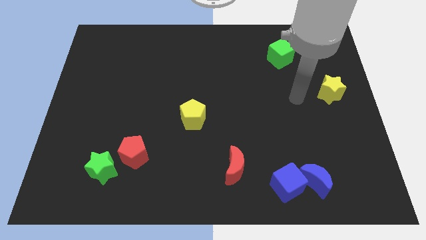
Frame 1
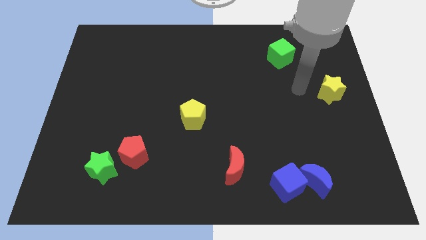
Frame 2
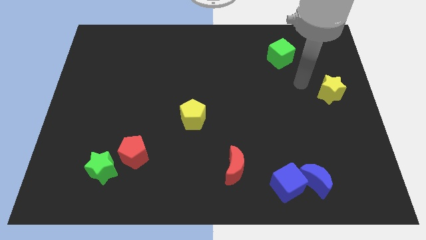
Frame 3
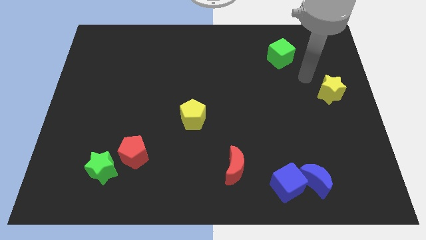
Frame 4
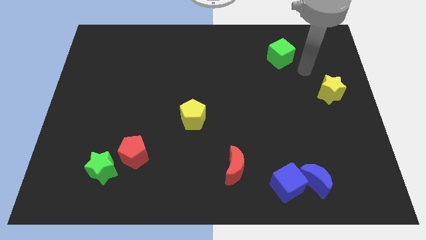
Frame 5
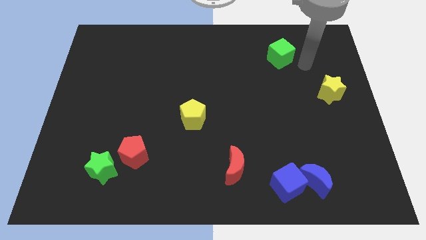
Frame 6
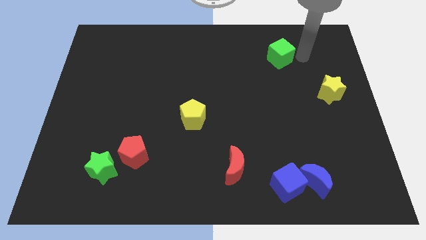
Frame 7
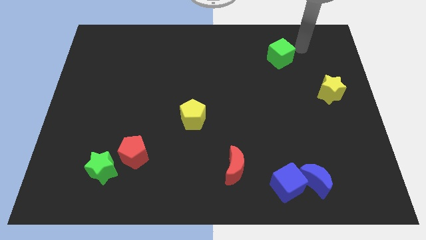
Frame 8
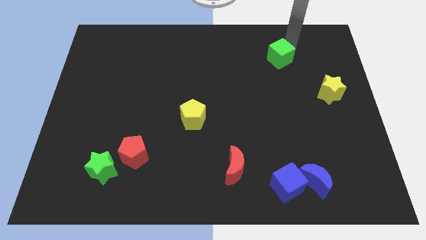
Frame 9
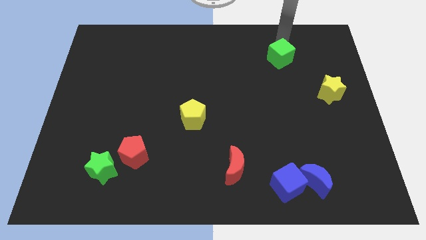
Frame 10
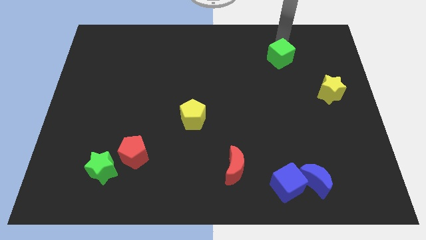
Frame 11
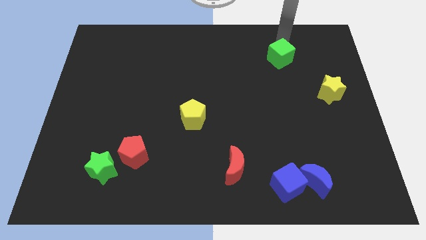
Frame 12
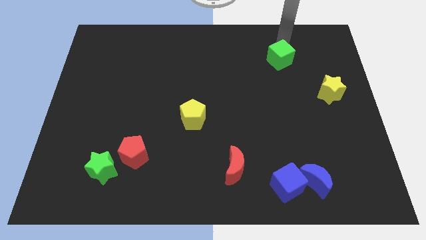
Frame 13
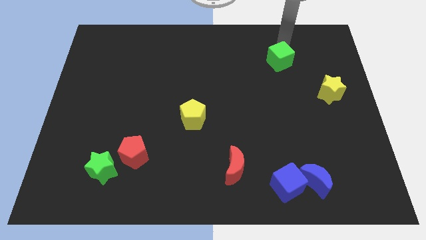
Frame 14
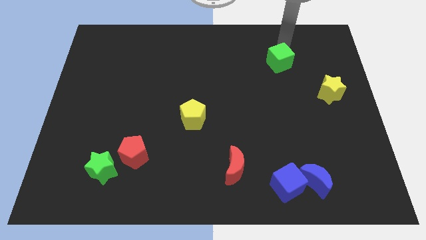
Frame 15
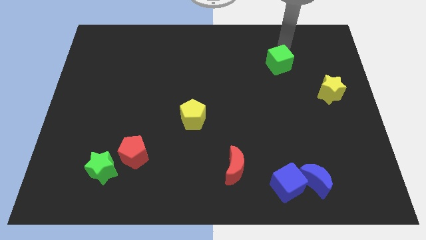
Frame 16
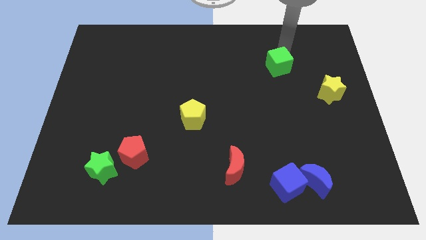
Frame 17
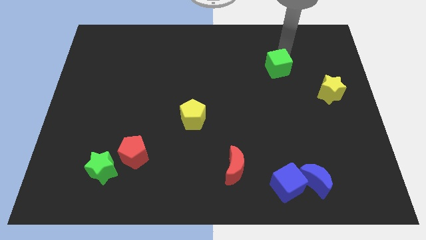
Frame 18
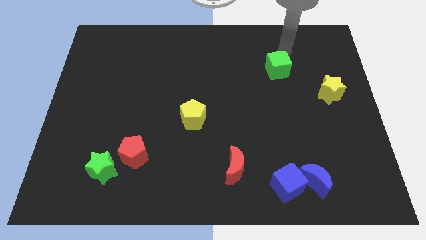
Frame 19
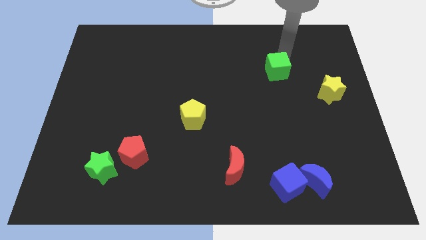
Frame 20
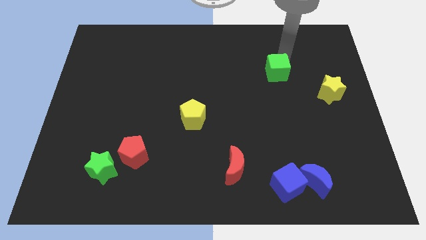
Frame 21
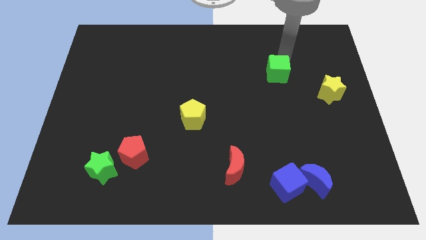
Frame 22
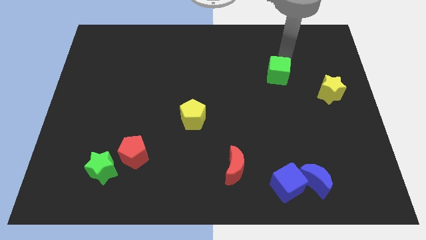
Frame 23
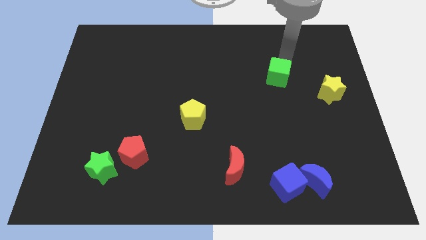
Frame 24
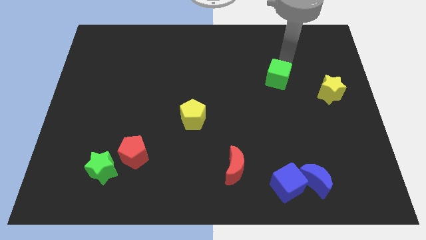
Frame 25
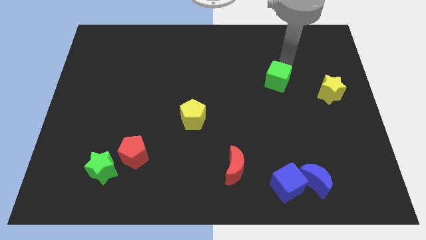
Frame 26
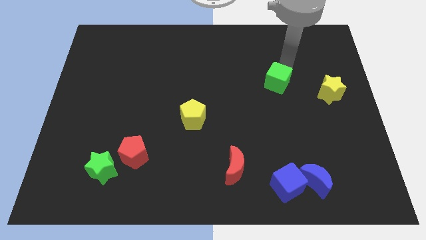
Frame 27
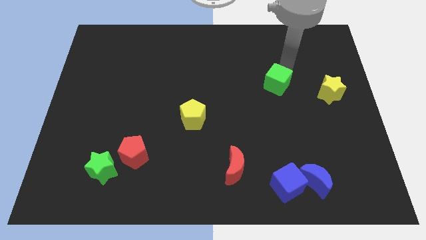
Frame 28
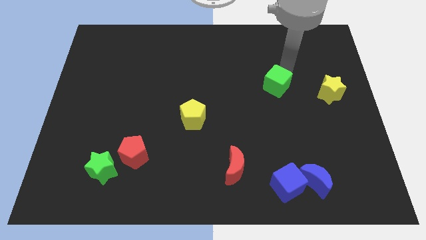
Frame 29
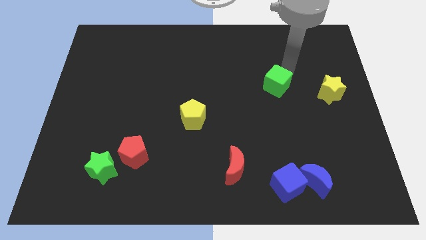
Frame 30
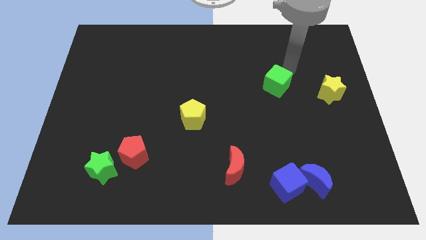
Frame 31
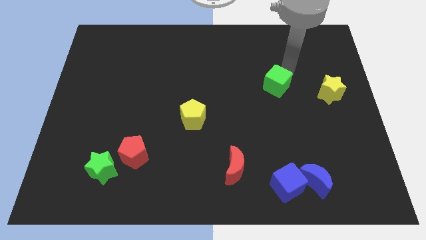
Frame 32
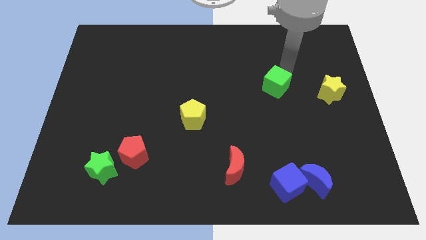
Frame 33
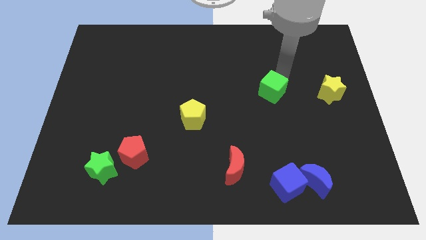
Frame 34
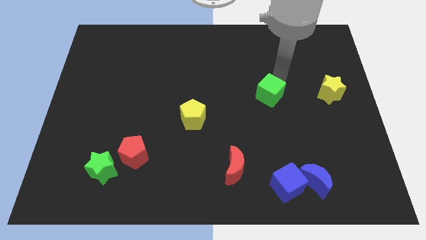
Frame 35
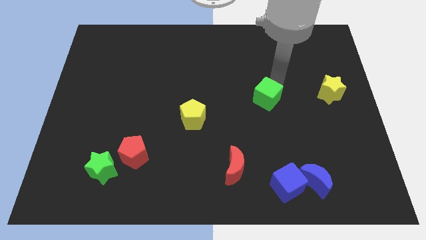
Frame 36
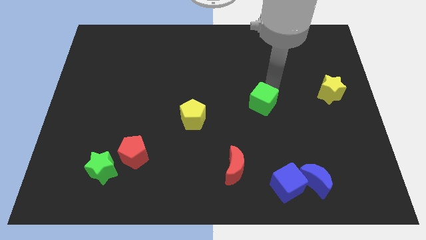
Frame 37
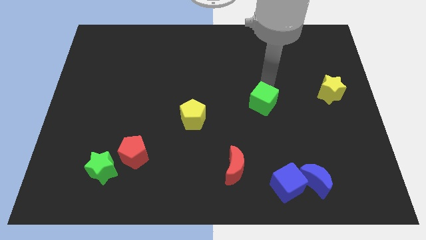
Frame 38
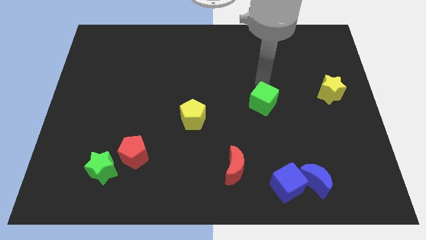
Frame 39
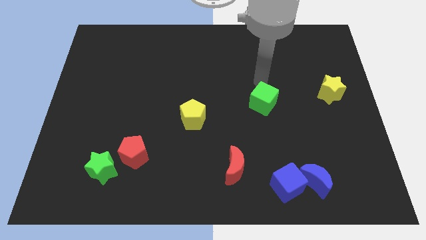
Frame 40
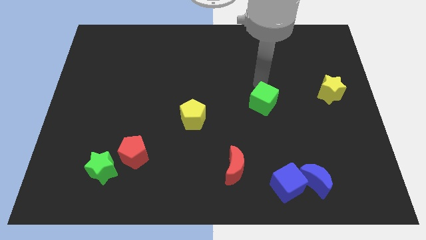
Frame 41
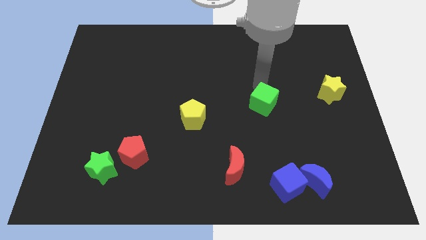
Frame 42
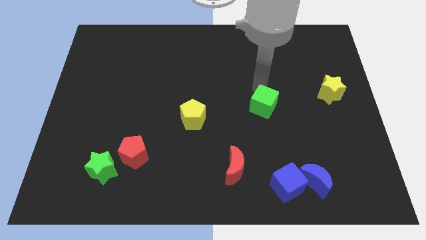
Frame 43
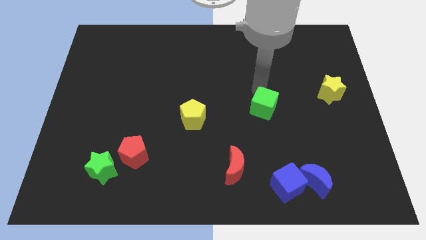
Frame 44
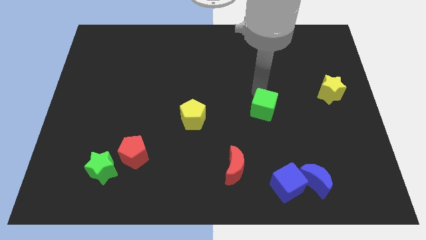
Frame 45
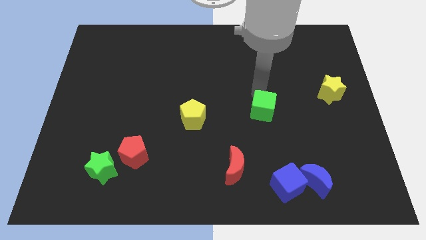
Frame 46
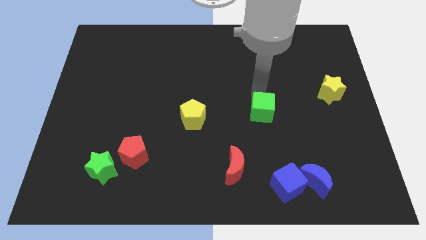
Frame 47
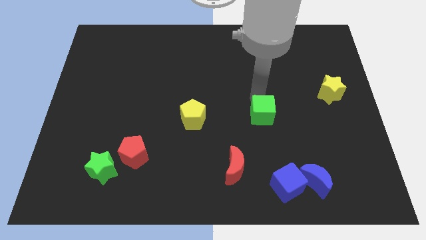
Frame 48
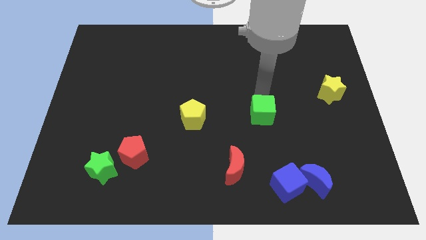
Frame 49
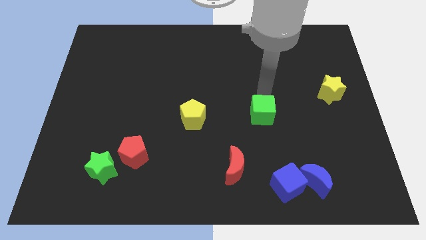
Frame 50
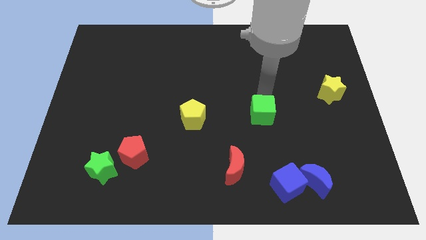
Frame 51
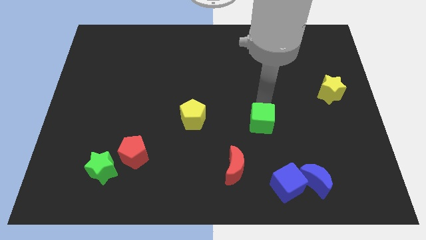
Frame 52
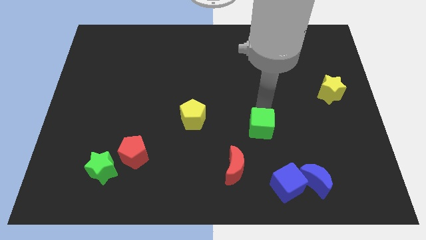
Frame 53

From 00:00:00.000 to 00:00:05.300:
put the green cube to the top right of the red moon

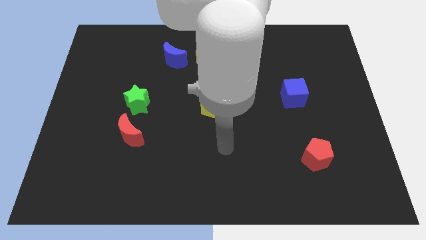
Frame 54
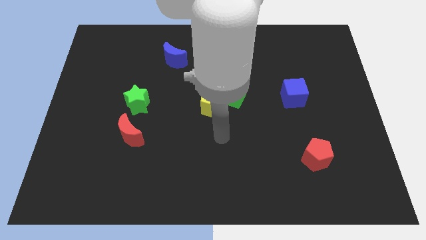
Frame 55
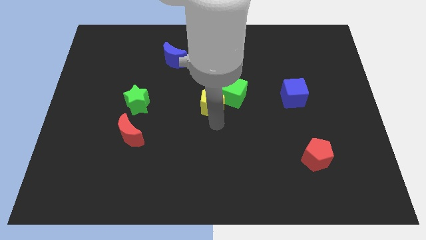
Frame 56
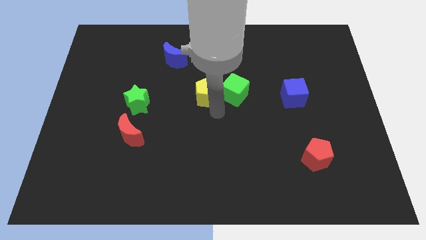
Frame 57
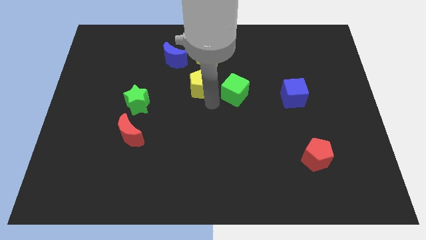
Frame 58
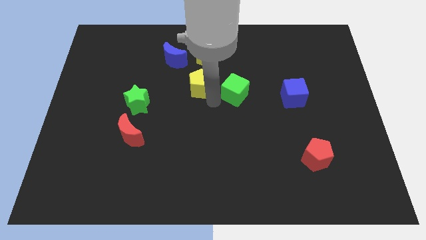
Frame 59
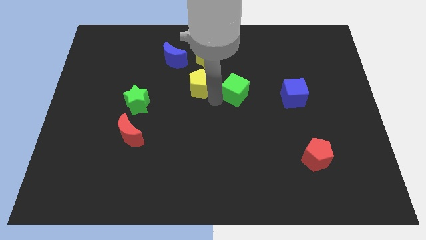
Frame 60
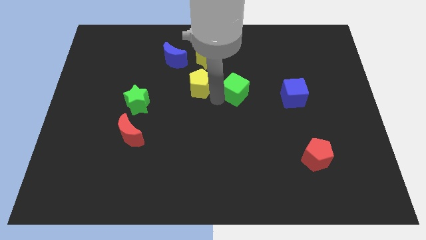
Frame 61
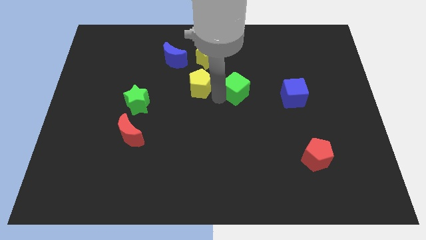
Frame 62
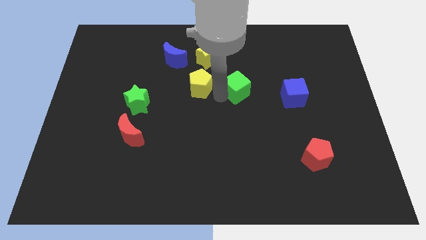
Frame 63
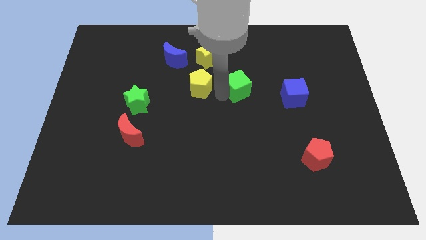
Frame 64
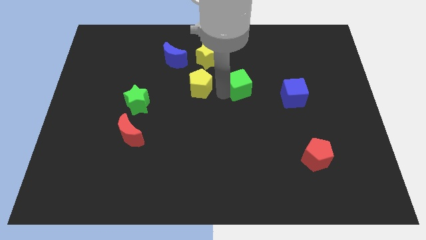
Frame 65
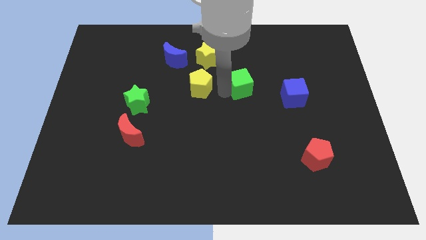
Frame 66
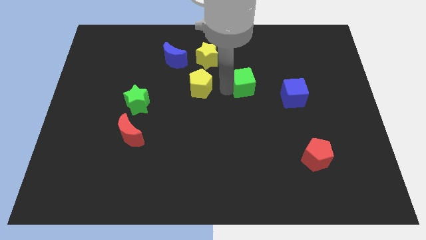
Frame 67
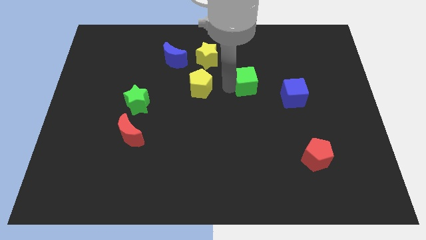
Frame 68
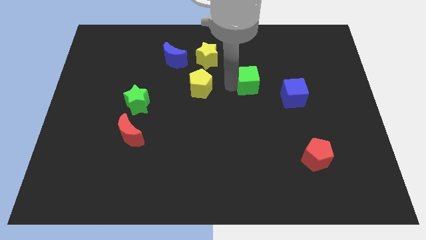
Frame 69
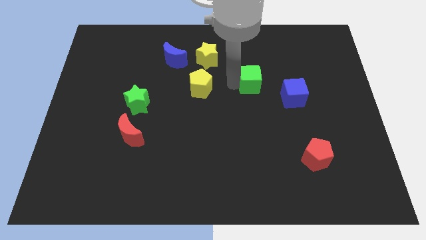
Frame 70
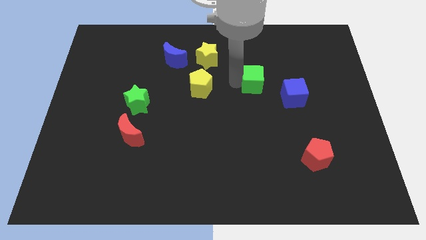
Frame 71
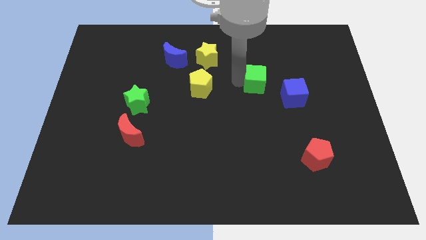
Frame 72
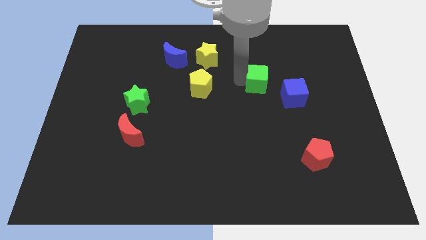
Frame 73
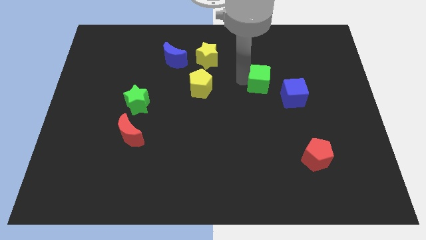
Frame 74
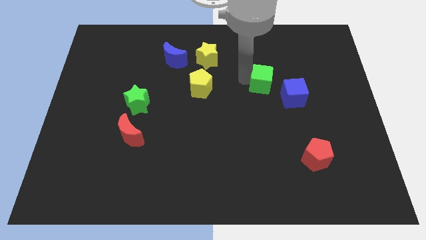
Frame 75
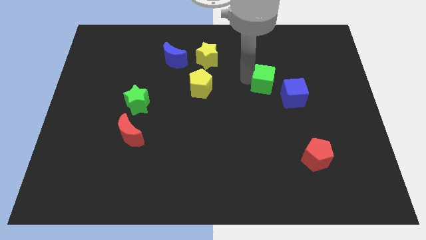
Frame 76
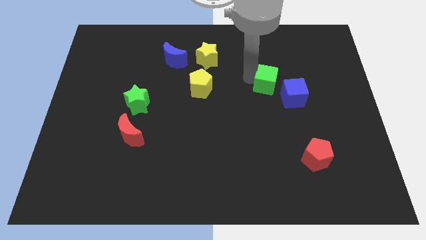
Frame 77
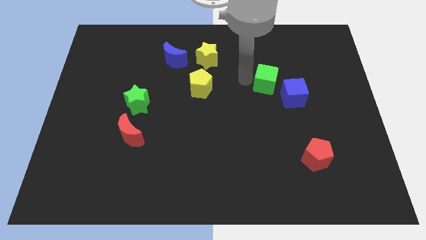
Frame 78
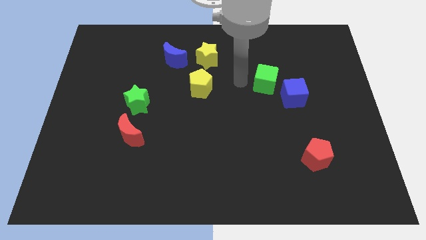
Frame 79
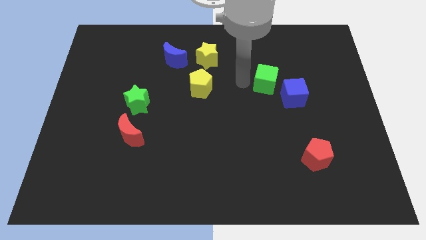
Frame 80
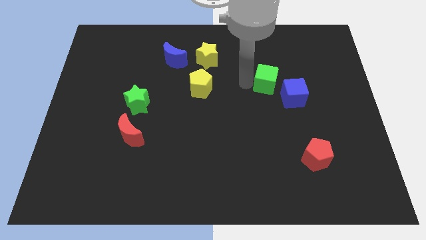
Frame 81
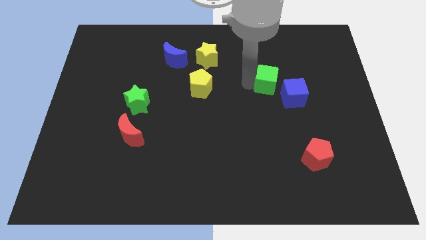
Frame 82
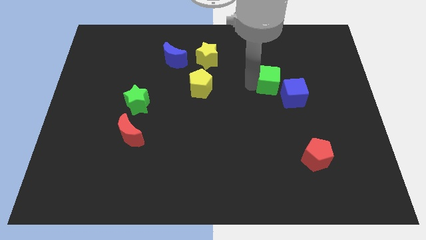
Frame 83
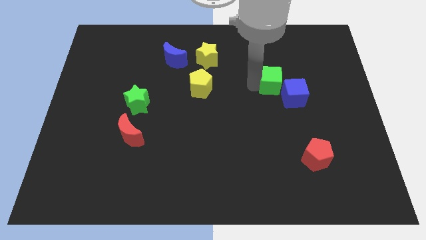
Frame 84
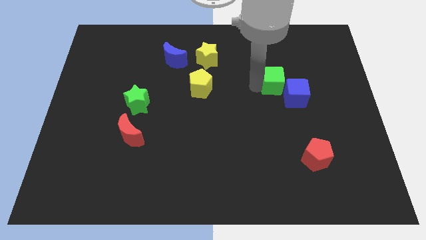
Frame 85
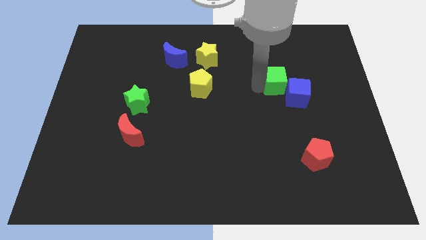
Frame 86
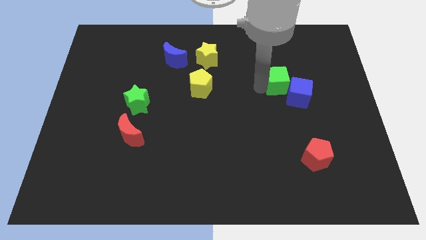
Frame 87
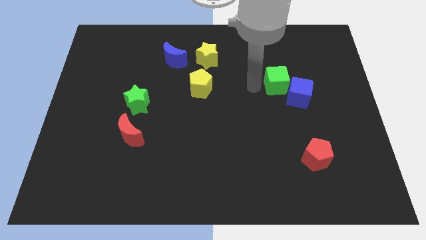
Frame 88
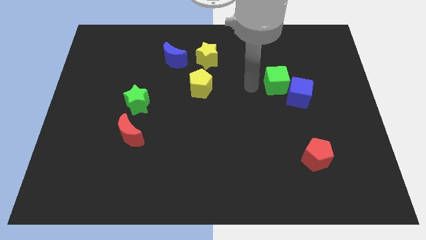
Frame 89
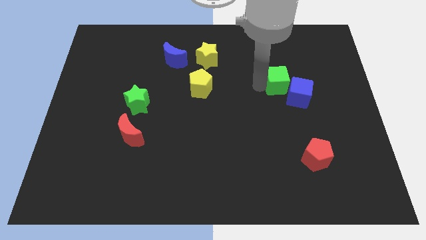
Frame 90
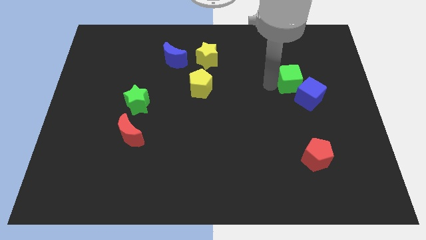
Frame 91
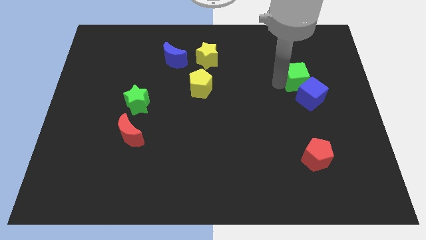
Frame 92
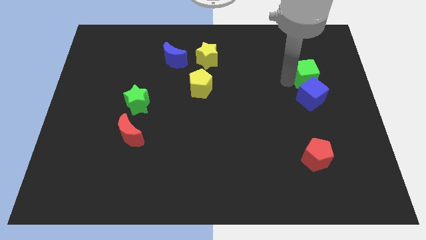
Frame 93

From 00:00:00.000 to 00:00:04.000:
put the green cube to the top right side of the blue cube
